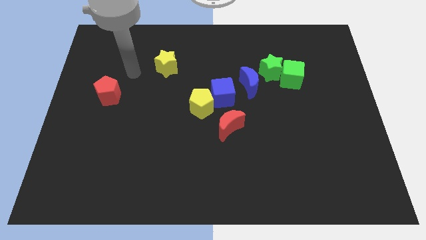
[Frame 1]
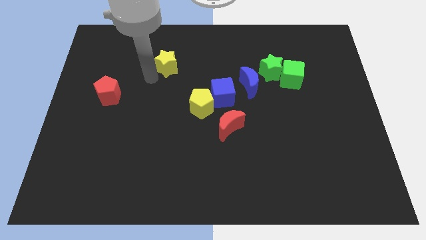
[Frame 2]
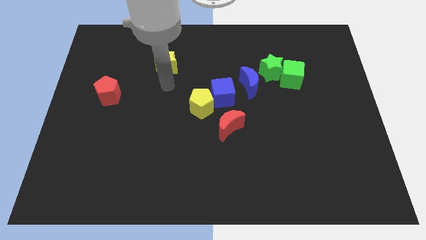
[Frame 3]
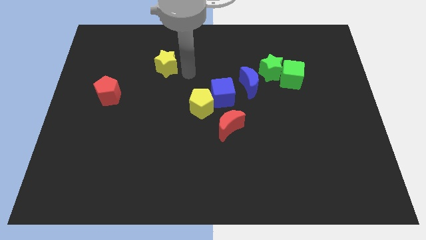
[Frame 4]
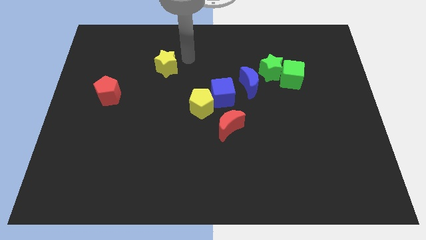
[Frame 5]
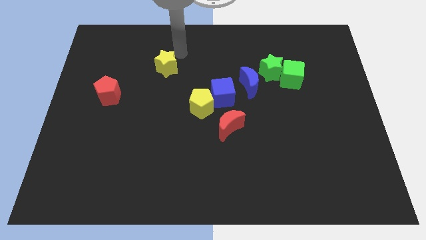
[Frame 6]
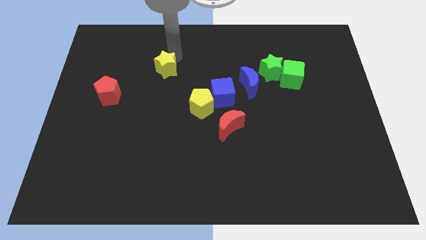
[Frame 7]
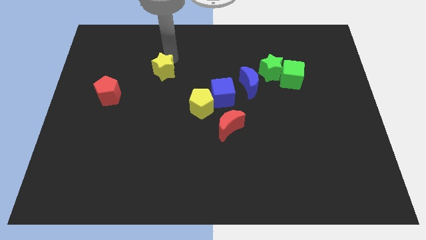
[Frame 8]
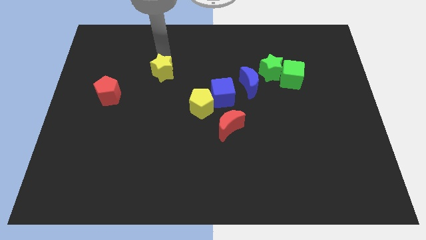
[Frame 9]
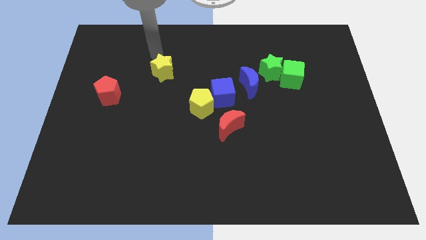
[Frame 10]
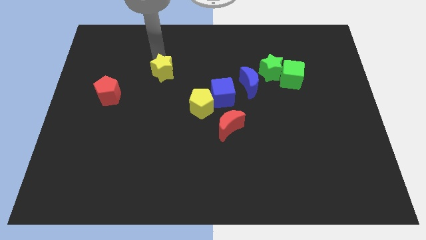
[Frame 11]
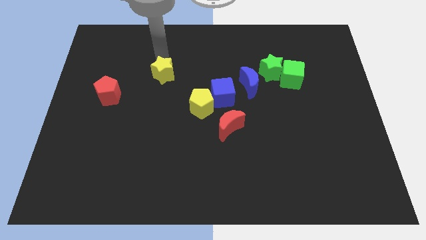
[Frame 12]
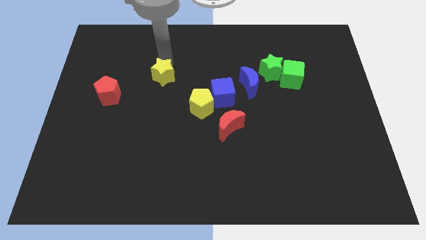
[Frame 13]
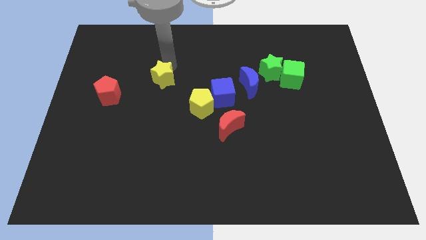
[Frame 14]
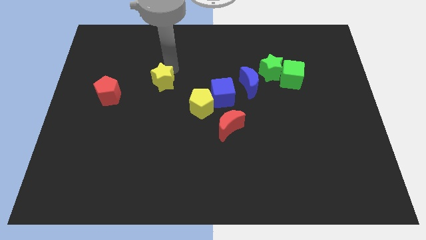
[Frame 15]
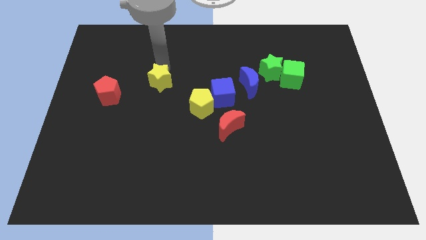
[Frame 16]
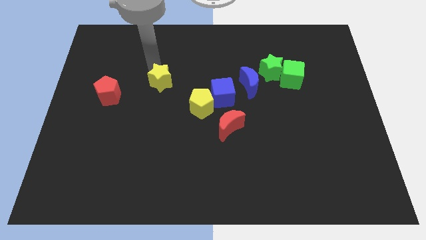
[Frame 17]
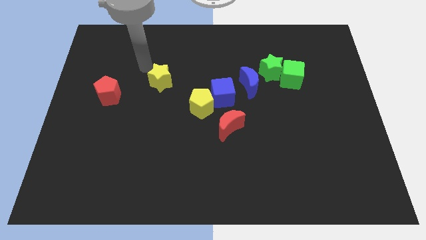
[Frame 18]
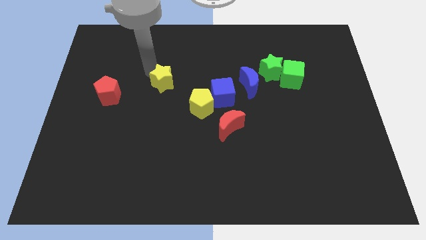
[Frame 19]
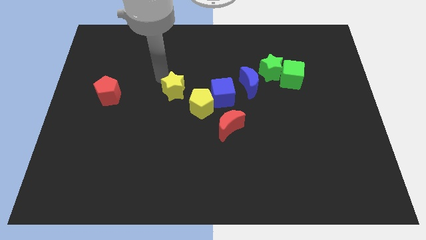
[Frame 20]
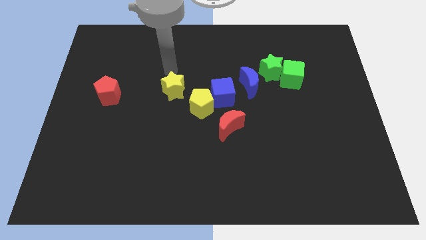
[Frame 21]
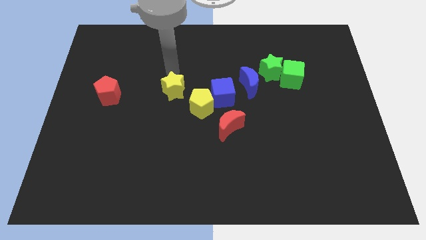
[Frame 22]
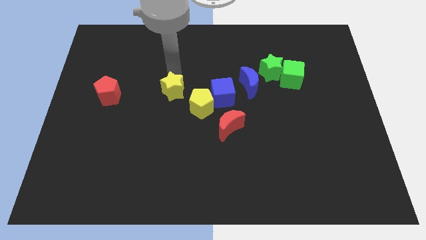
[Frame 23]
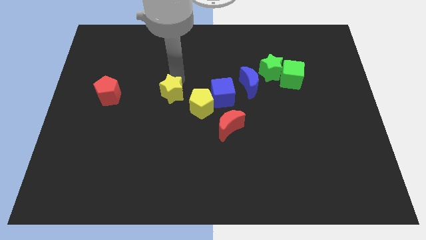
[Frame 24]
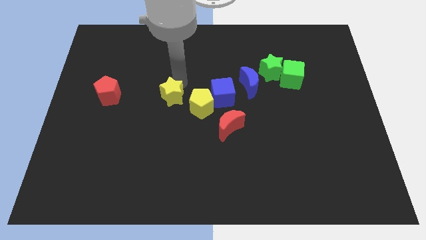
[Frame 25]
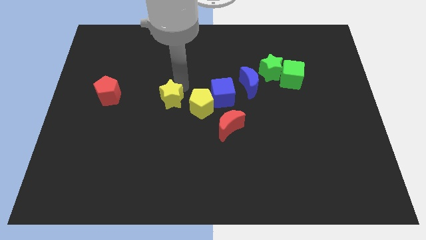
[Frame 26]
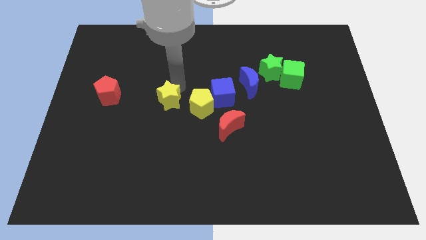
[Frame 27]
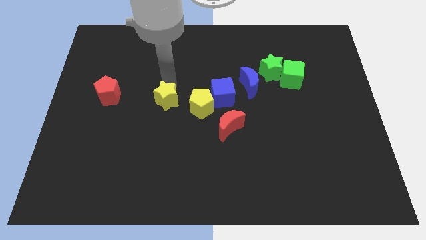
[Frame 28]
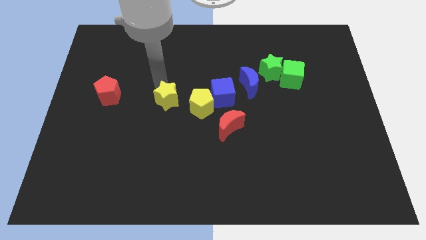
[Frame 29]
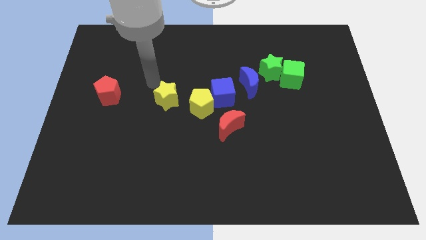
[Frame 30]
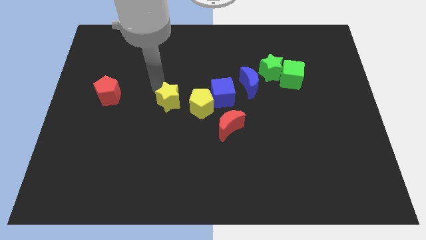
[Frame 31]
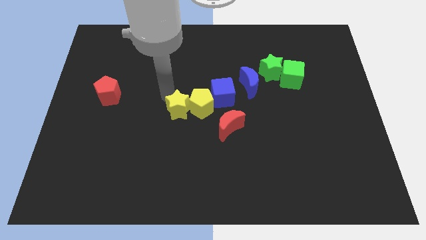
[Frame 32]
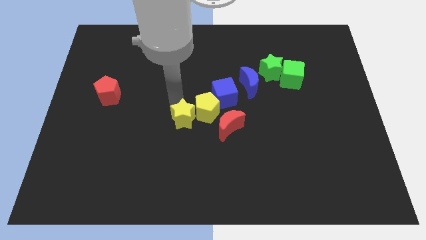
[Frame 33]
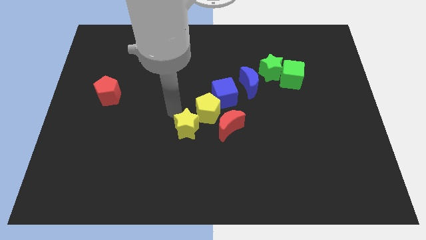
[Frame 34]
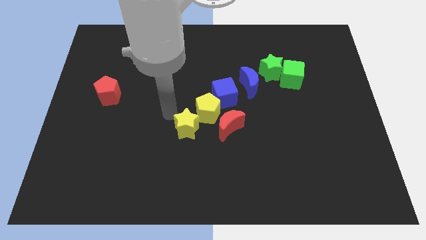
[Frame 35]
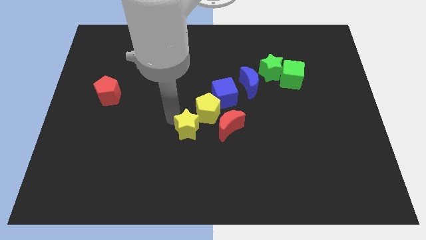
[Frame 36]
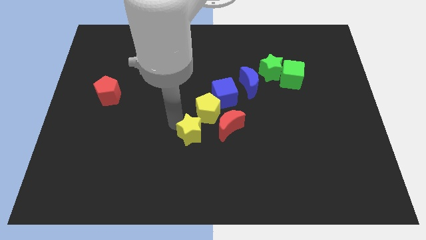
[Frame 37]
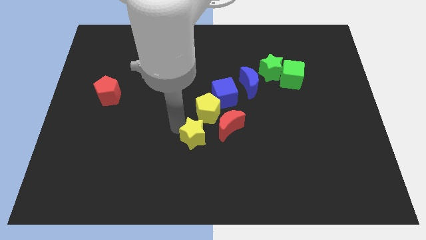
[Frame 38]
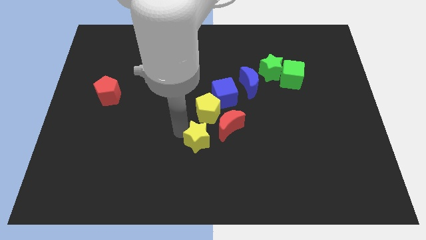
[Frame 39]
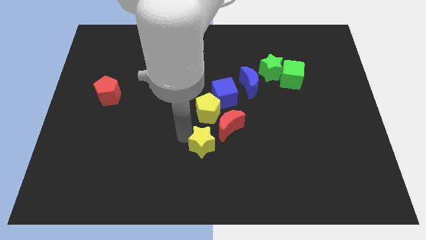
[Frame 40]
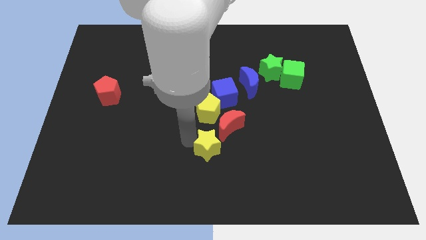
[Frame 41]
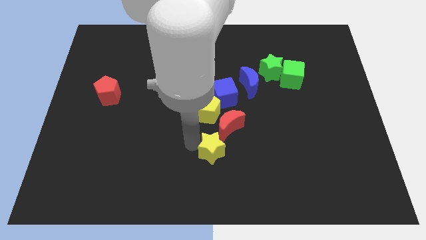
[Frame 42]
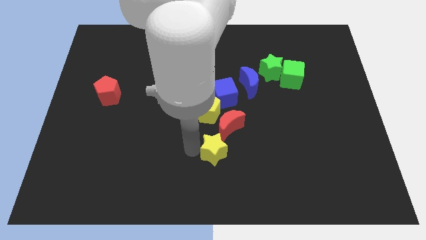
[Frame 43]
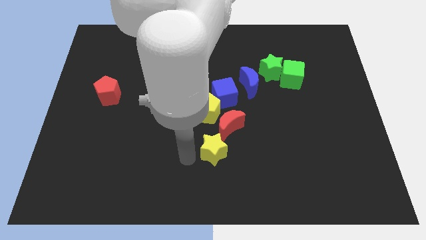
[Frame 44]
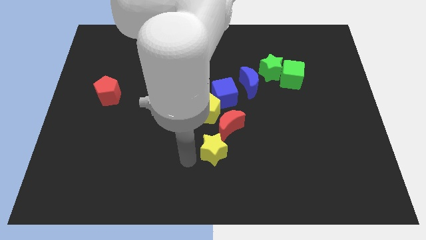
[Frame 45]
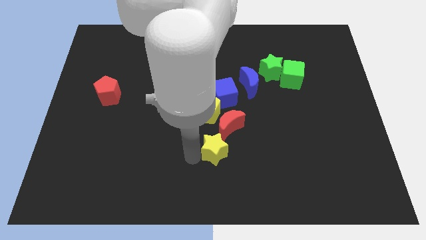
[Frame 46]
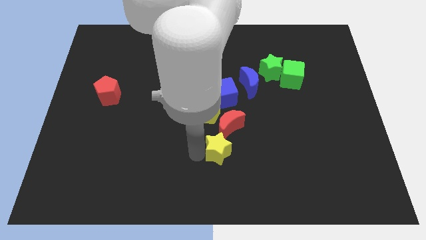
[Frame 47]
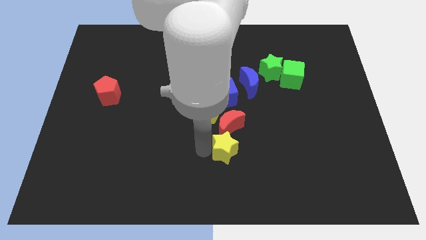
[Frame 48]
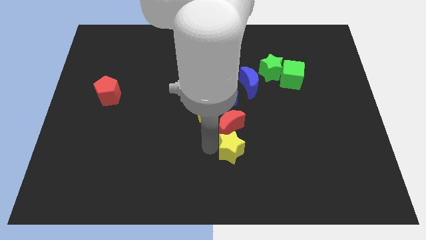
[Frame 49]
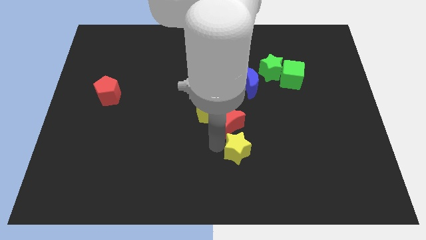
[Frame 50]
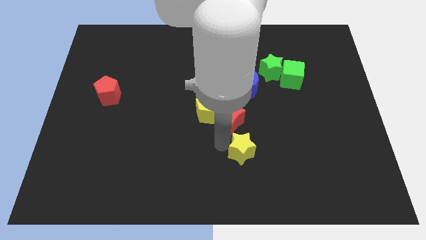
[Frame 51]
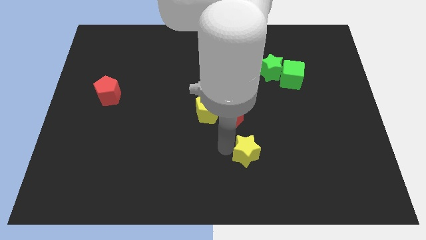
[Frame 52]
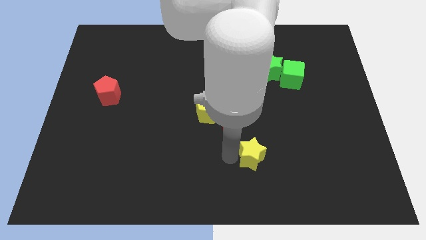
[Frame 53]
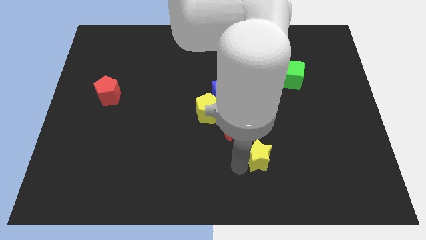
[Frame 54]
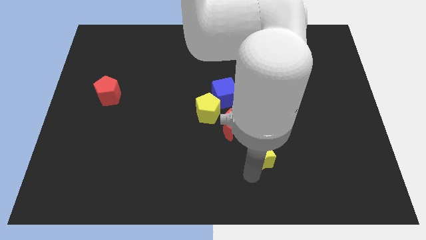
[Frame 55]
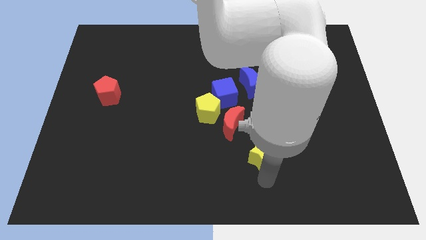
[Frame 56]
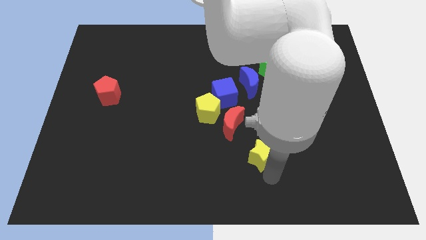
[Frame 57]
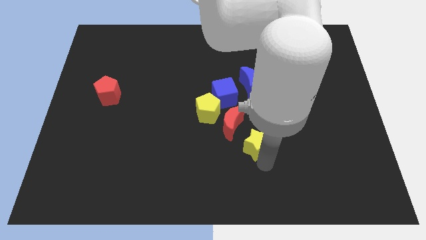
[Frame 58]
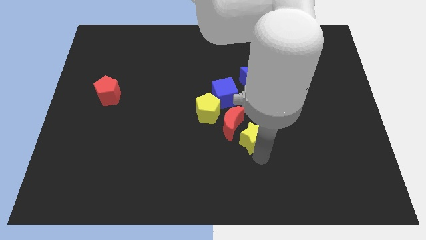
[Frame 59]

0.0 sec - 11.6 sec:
push the yellow star to the bottom of the blue moon
